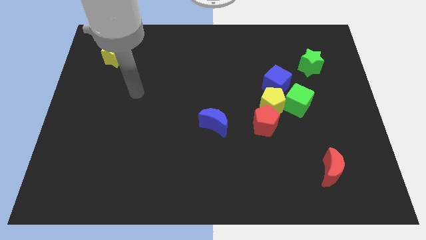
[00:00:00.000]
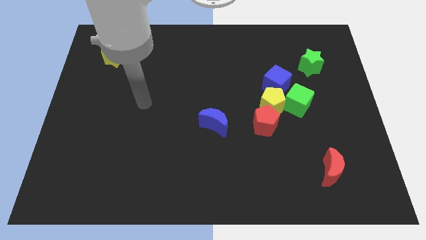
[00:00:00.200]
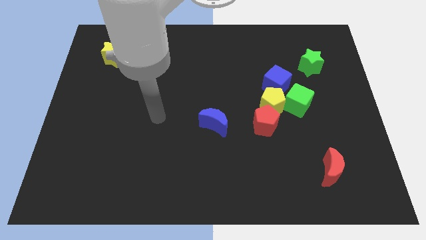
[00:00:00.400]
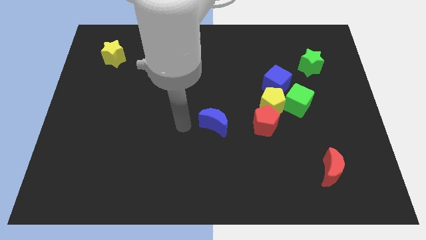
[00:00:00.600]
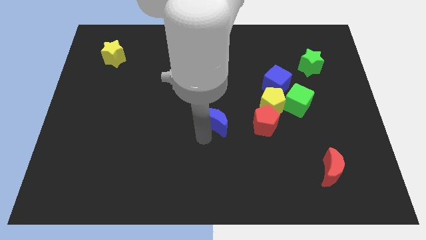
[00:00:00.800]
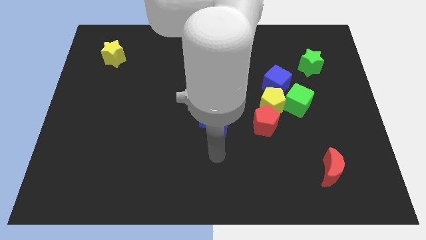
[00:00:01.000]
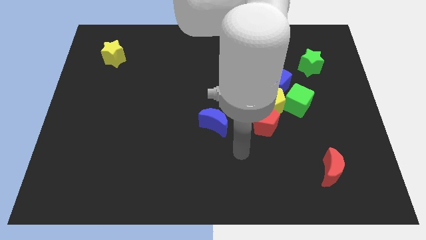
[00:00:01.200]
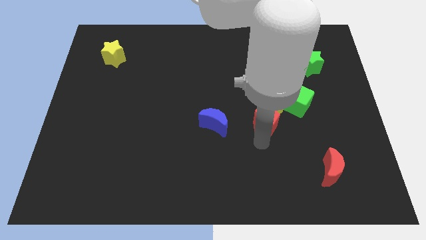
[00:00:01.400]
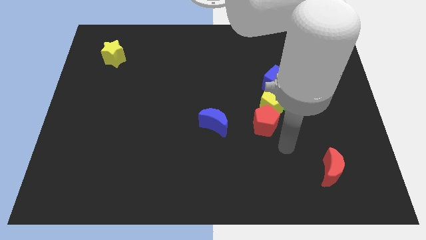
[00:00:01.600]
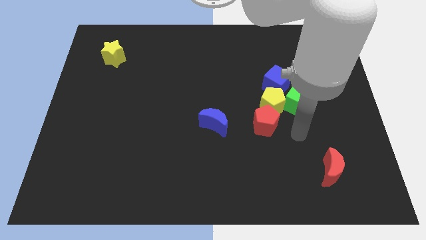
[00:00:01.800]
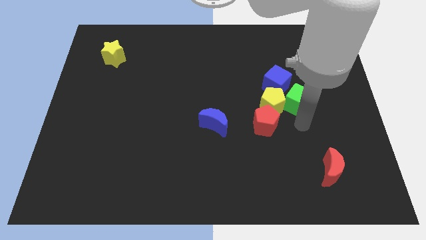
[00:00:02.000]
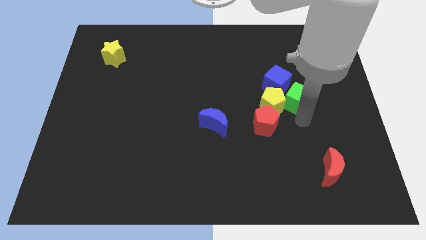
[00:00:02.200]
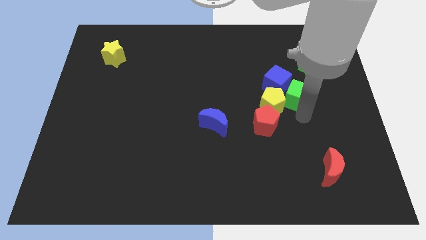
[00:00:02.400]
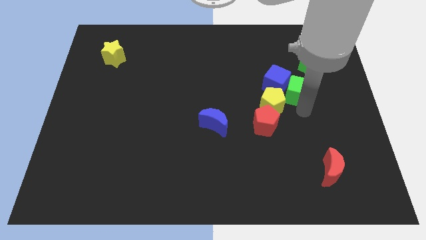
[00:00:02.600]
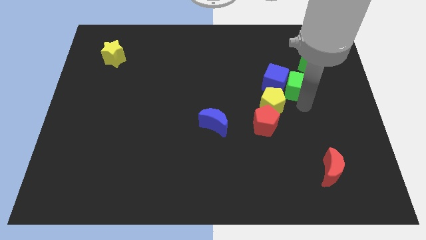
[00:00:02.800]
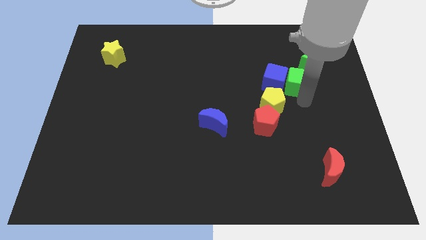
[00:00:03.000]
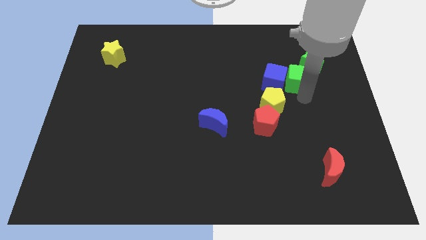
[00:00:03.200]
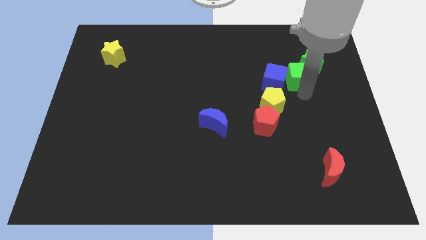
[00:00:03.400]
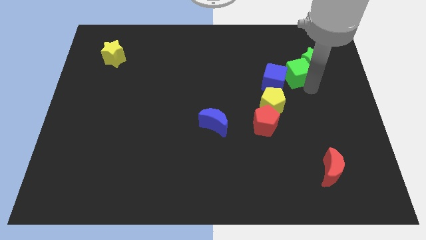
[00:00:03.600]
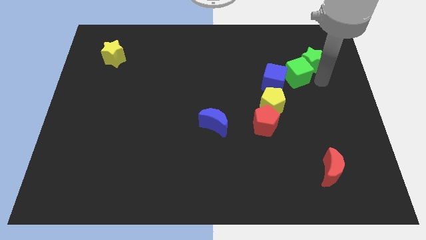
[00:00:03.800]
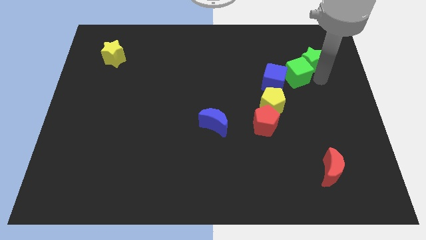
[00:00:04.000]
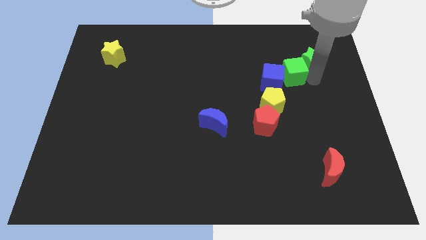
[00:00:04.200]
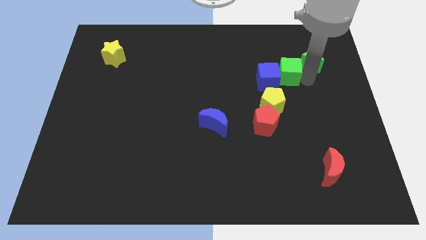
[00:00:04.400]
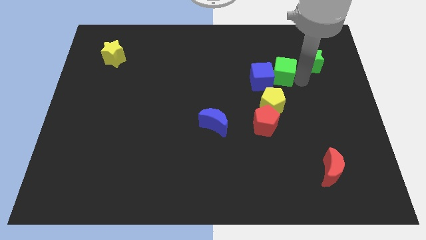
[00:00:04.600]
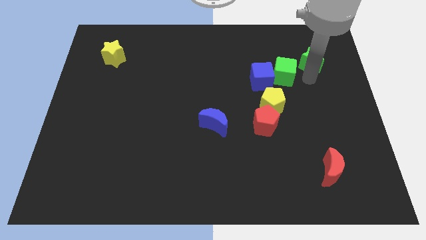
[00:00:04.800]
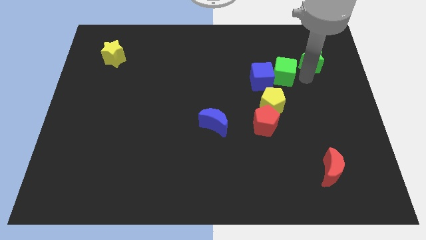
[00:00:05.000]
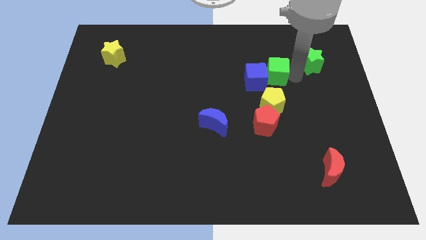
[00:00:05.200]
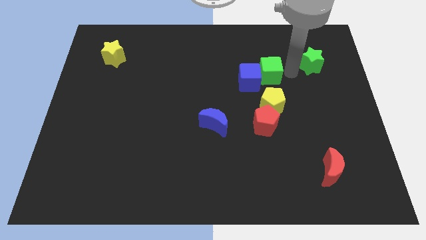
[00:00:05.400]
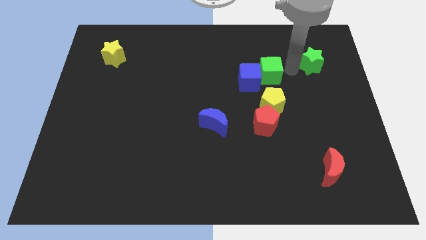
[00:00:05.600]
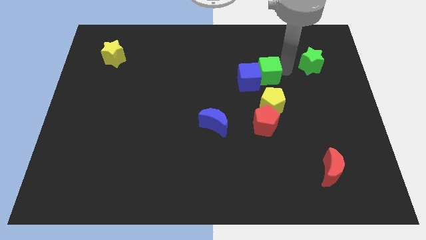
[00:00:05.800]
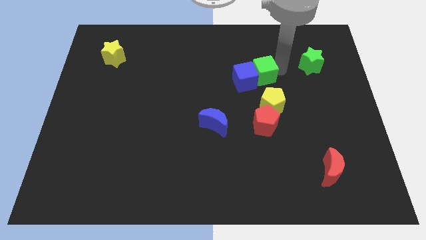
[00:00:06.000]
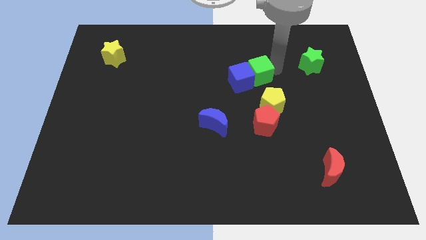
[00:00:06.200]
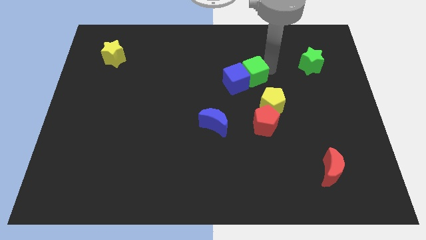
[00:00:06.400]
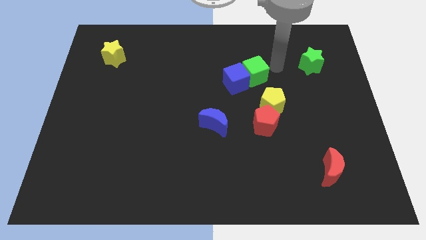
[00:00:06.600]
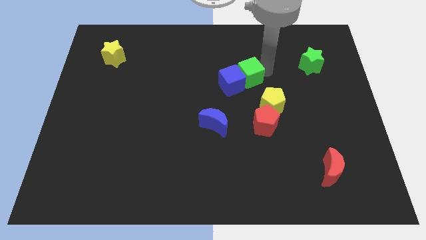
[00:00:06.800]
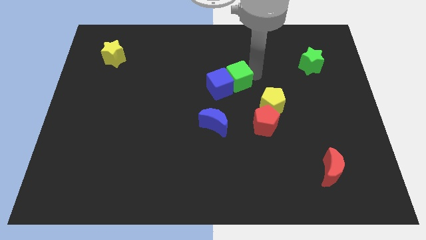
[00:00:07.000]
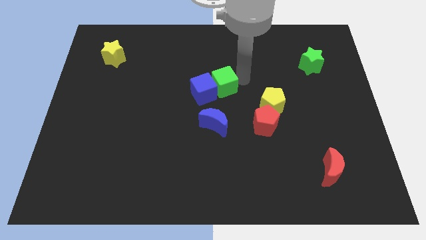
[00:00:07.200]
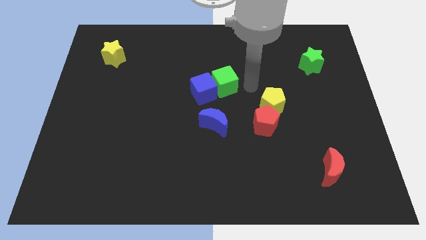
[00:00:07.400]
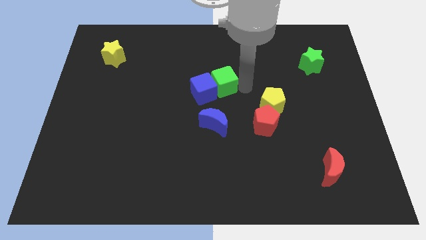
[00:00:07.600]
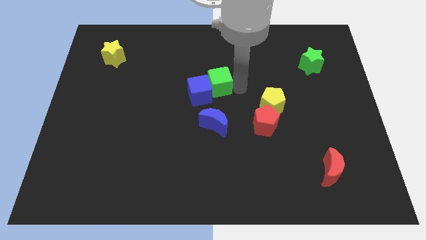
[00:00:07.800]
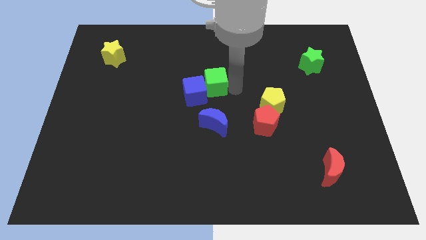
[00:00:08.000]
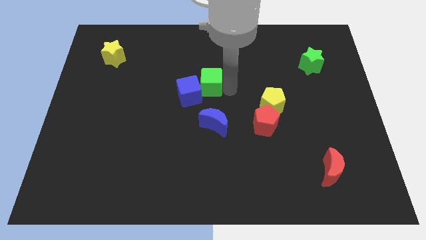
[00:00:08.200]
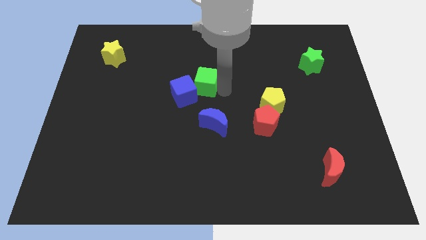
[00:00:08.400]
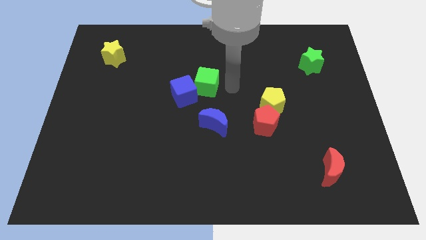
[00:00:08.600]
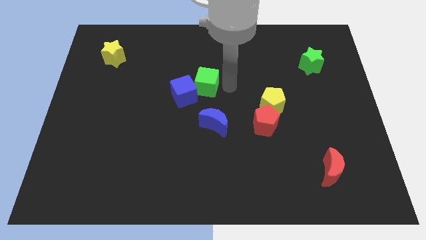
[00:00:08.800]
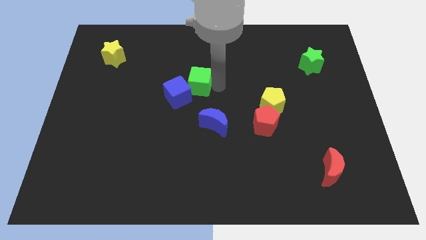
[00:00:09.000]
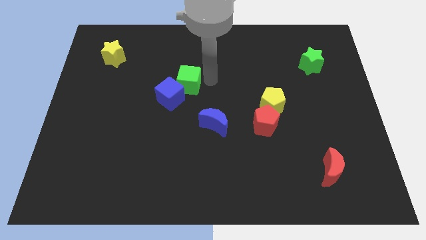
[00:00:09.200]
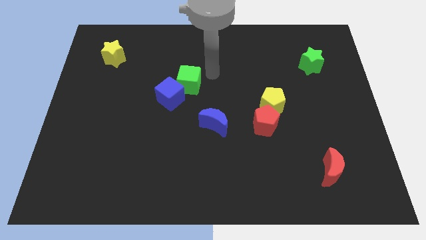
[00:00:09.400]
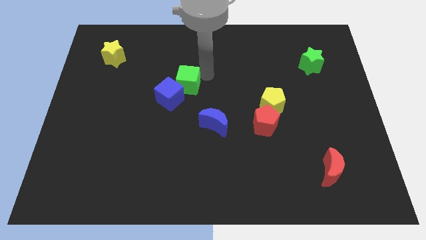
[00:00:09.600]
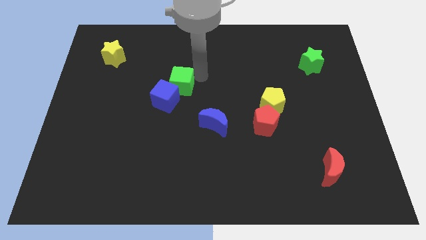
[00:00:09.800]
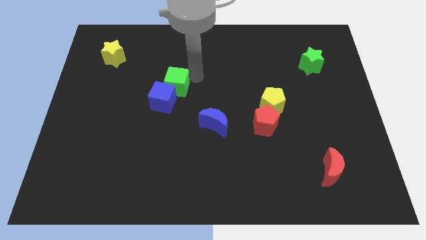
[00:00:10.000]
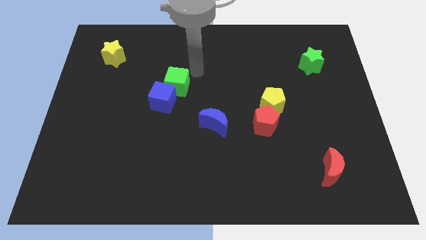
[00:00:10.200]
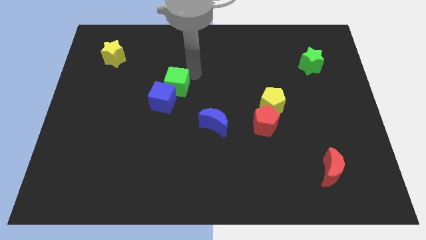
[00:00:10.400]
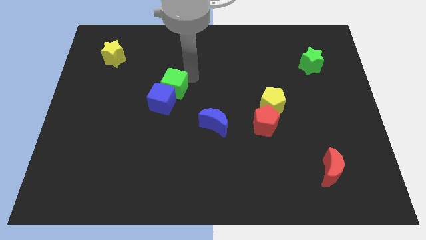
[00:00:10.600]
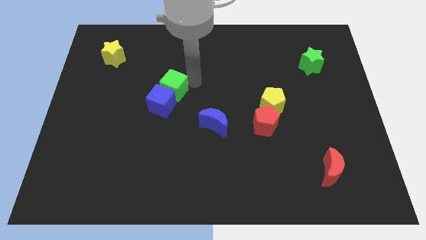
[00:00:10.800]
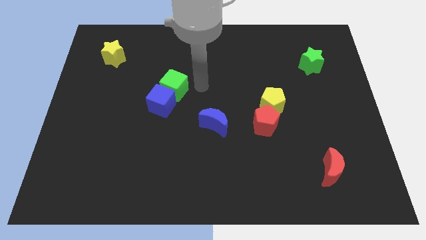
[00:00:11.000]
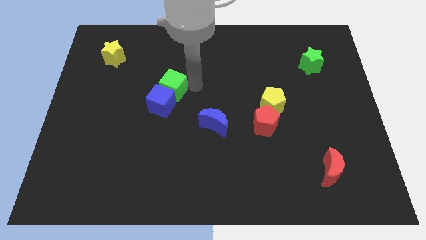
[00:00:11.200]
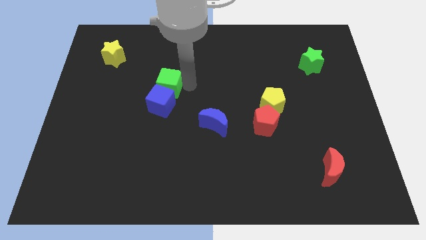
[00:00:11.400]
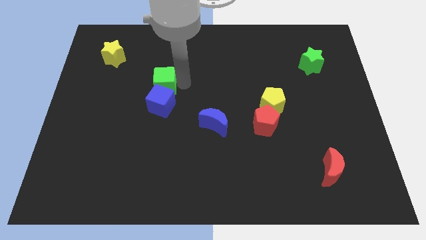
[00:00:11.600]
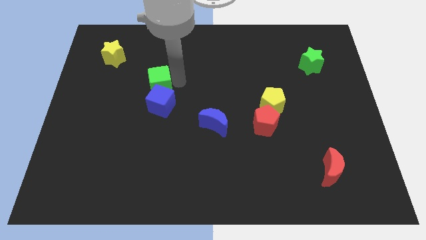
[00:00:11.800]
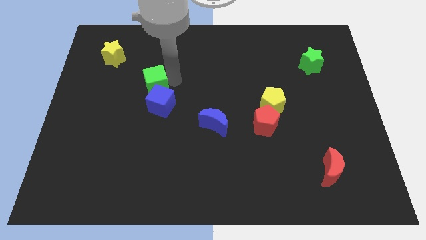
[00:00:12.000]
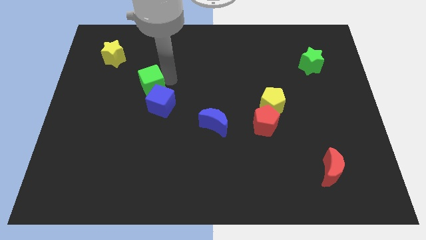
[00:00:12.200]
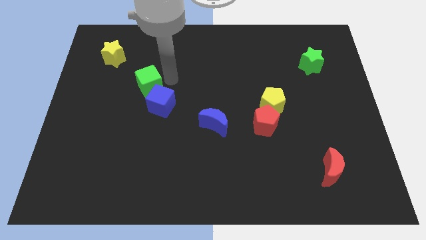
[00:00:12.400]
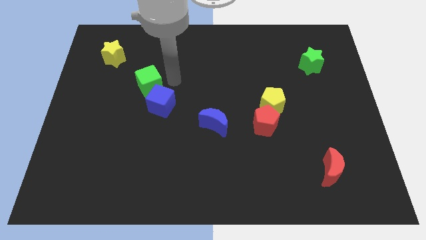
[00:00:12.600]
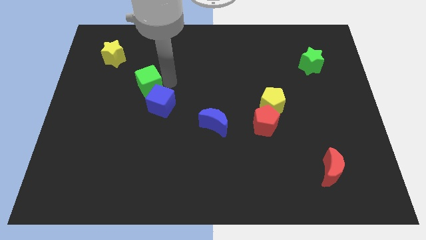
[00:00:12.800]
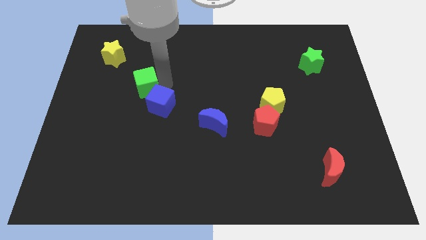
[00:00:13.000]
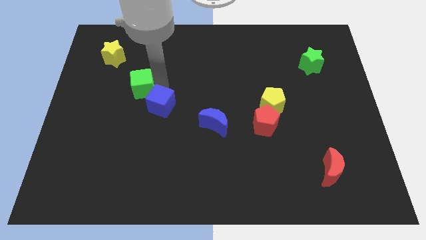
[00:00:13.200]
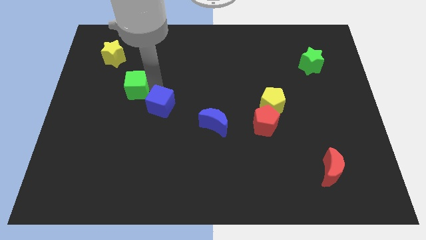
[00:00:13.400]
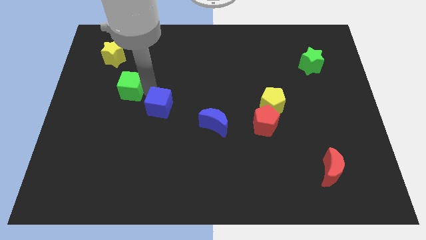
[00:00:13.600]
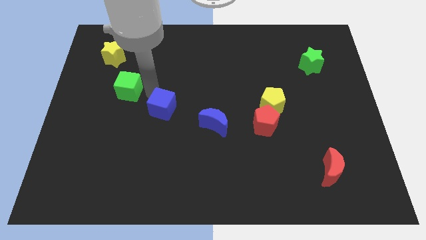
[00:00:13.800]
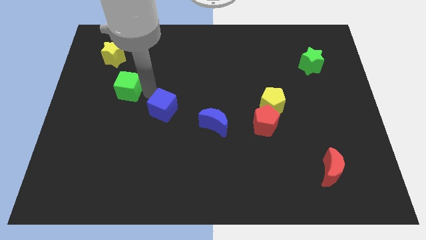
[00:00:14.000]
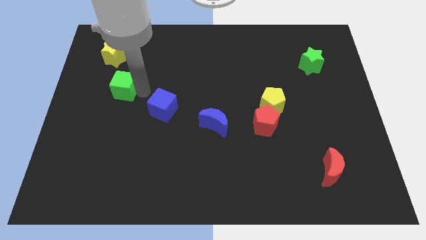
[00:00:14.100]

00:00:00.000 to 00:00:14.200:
push the green cube below the yellow star
